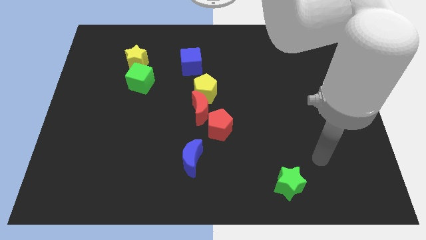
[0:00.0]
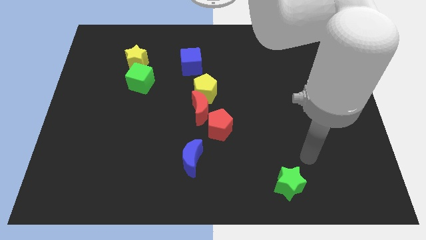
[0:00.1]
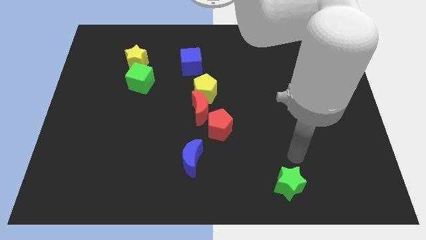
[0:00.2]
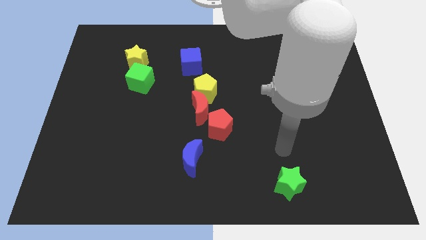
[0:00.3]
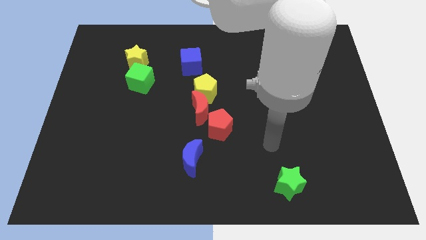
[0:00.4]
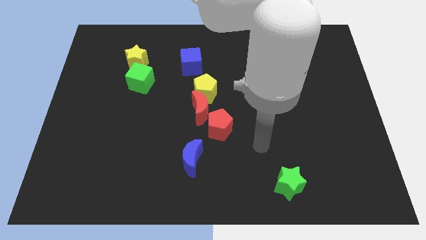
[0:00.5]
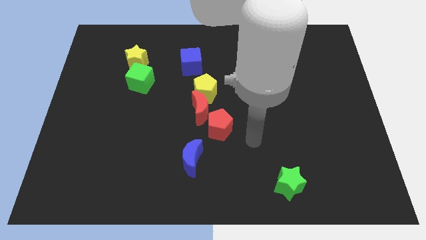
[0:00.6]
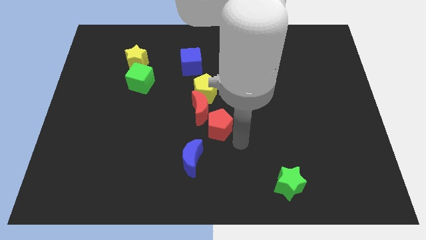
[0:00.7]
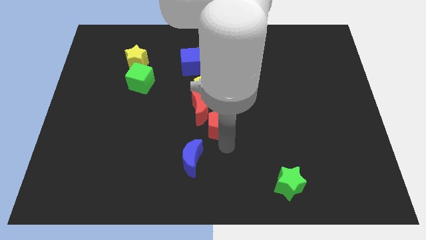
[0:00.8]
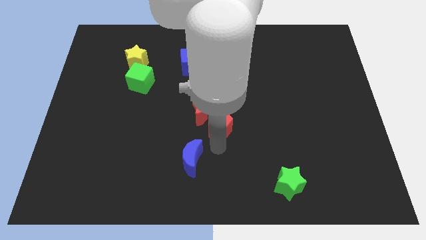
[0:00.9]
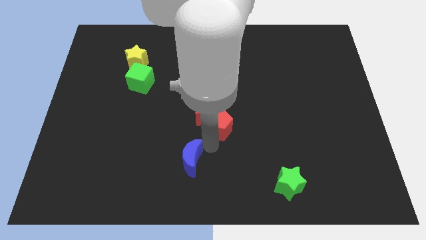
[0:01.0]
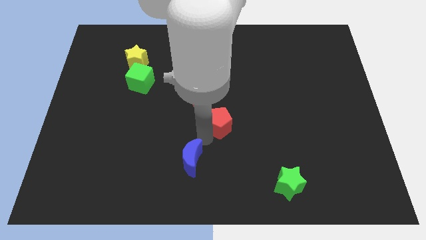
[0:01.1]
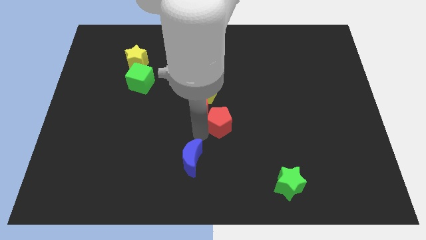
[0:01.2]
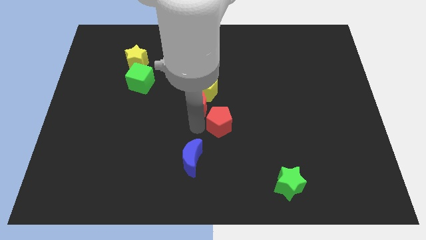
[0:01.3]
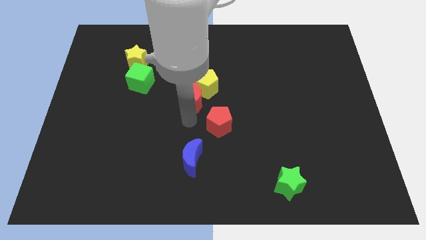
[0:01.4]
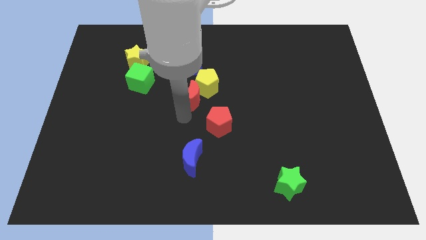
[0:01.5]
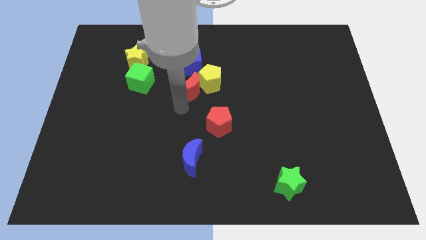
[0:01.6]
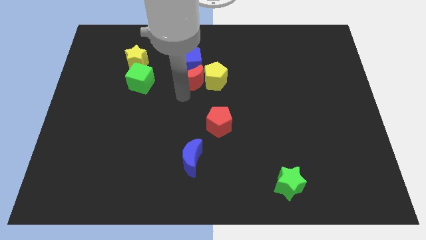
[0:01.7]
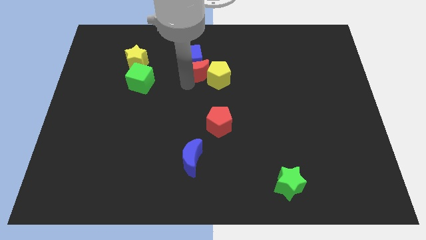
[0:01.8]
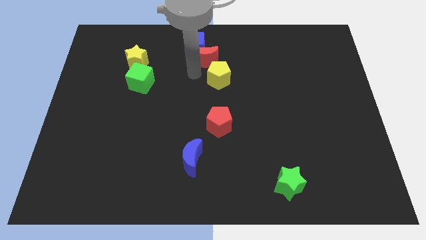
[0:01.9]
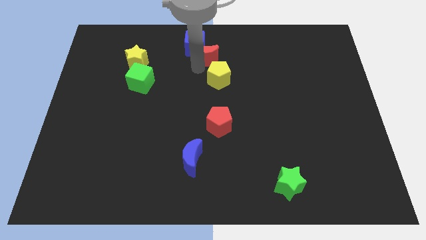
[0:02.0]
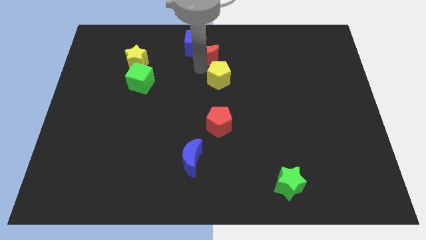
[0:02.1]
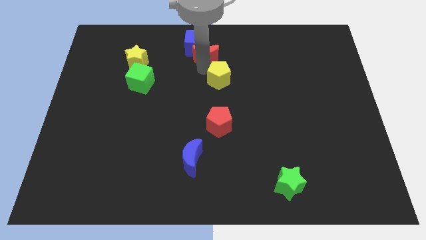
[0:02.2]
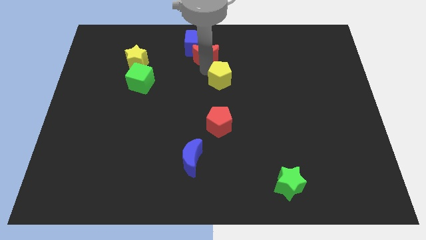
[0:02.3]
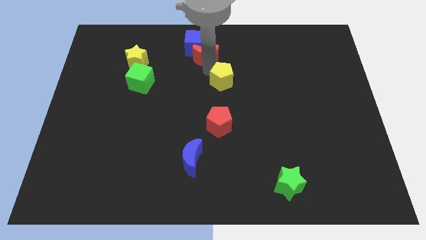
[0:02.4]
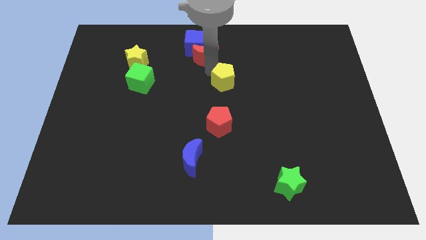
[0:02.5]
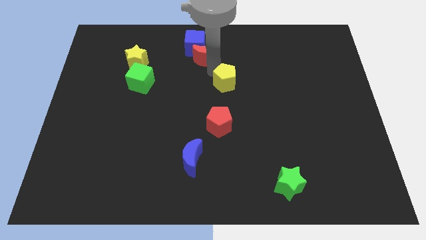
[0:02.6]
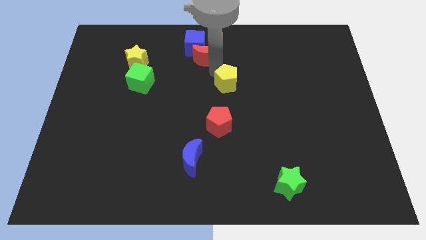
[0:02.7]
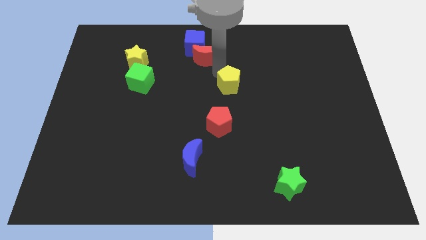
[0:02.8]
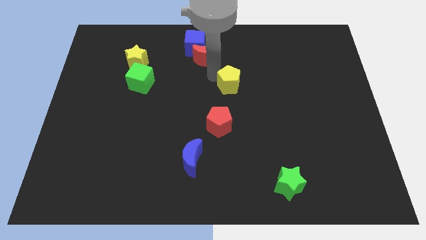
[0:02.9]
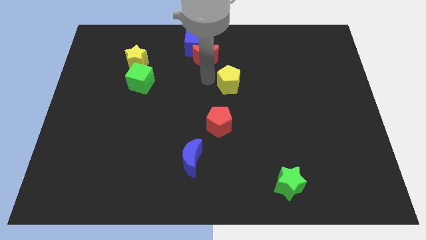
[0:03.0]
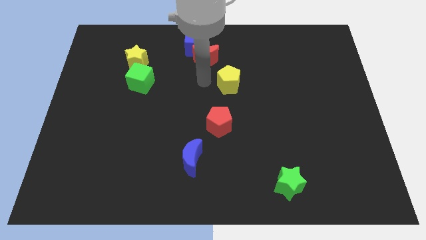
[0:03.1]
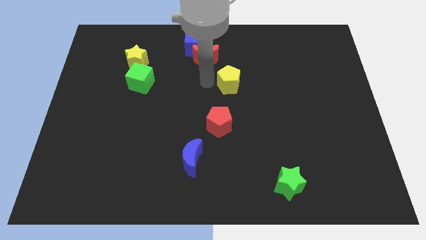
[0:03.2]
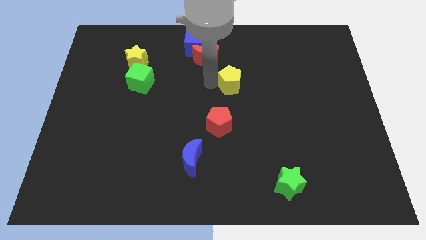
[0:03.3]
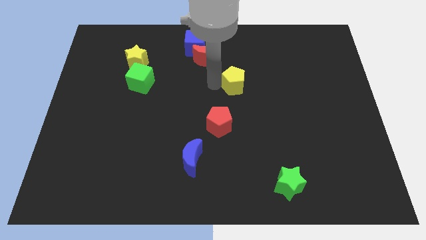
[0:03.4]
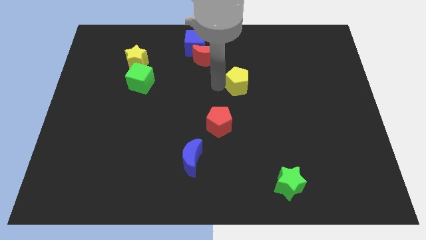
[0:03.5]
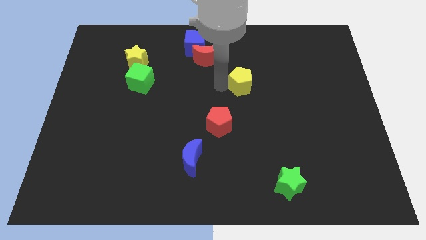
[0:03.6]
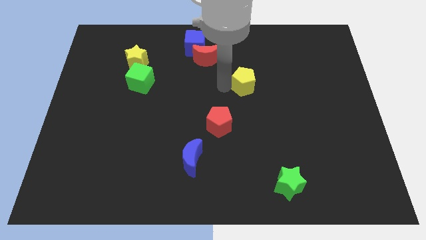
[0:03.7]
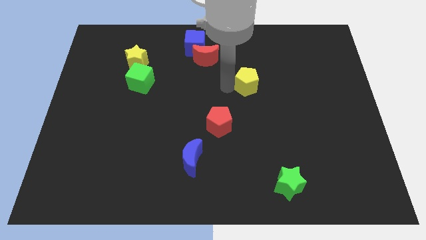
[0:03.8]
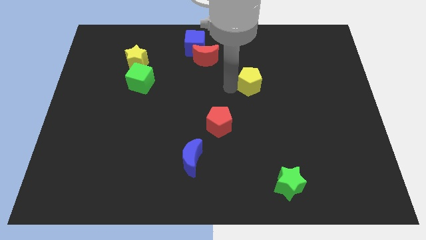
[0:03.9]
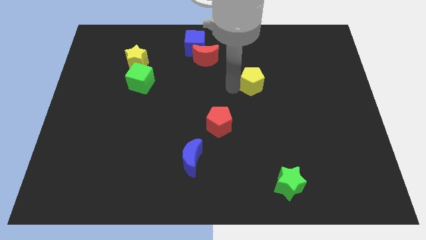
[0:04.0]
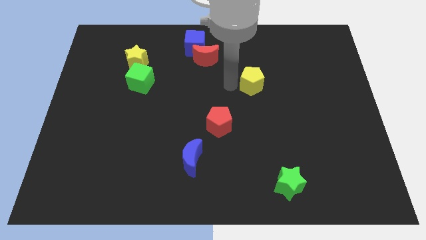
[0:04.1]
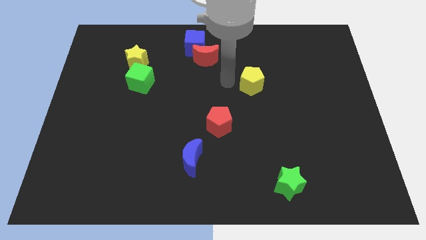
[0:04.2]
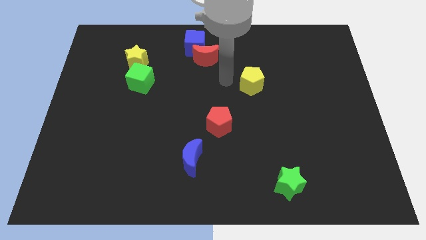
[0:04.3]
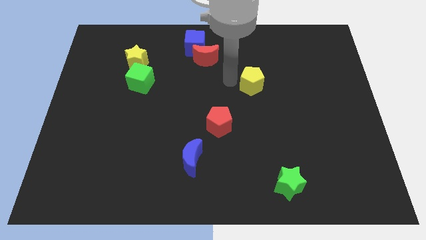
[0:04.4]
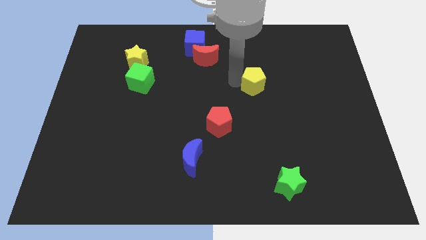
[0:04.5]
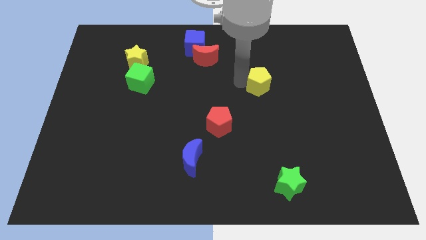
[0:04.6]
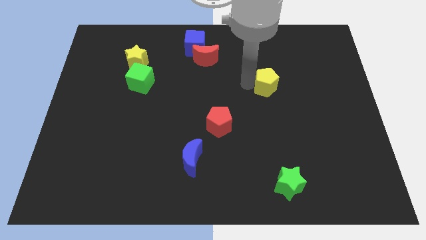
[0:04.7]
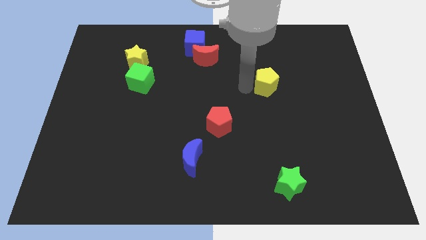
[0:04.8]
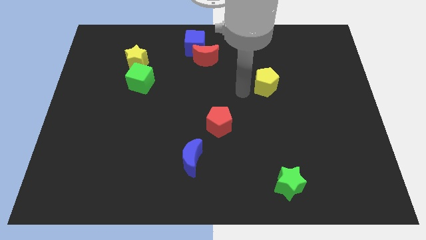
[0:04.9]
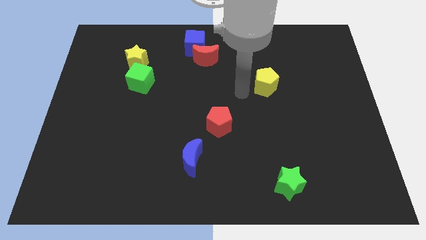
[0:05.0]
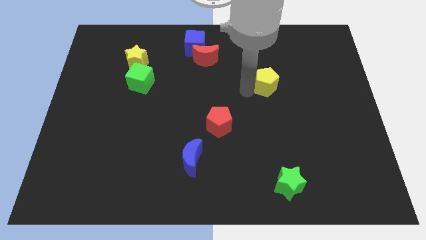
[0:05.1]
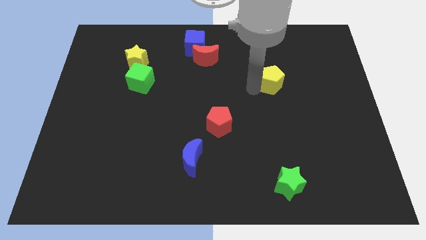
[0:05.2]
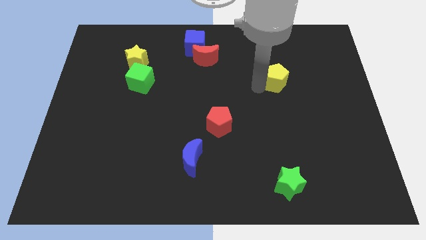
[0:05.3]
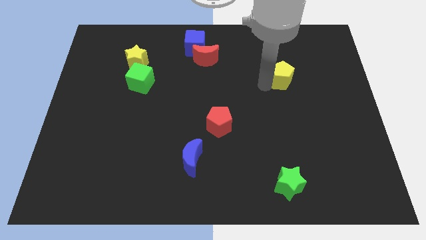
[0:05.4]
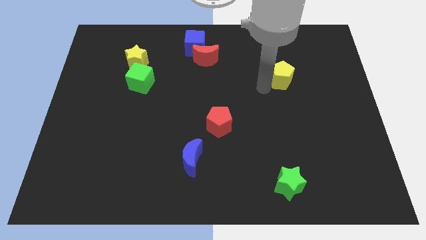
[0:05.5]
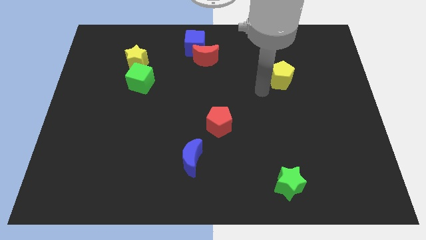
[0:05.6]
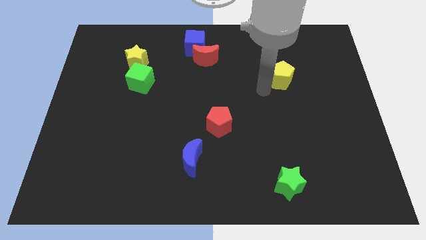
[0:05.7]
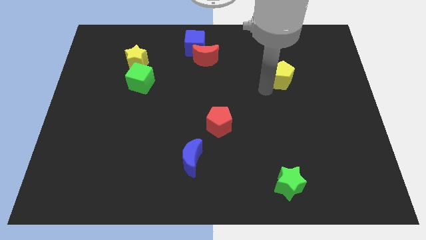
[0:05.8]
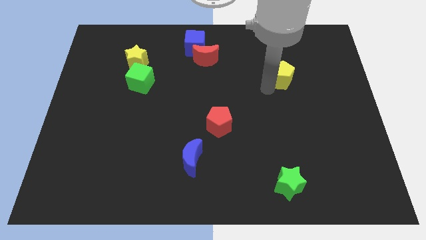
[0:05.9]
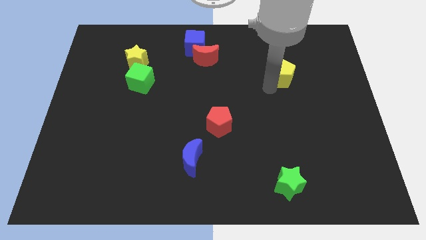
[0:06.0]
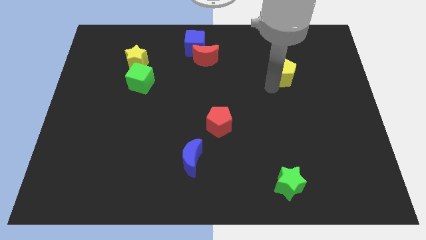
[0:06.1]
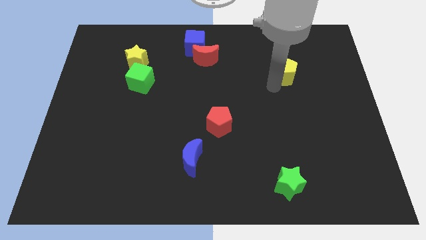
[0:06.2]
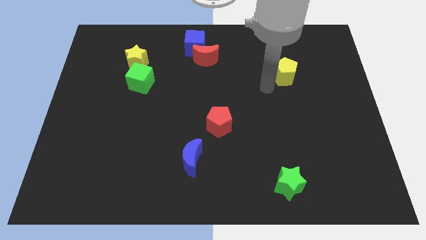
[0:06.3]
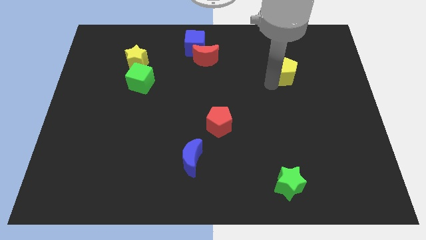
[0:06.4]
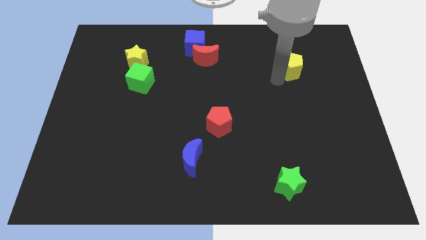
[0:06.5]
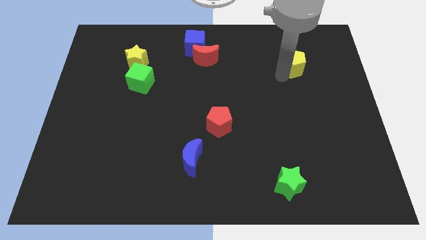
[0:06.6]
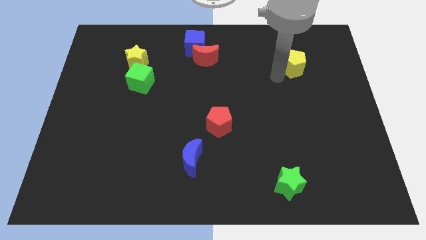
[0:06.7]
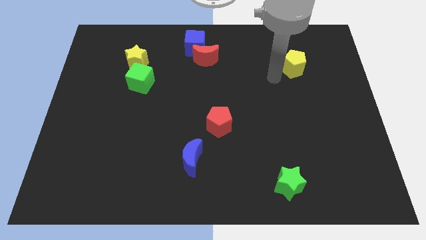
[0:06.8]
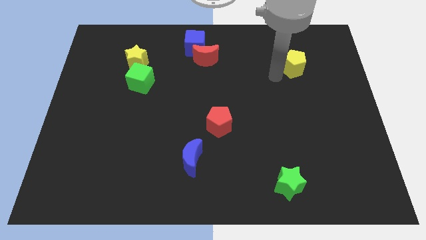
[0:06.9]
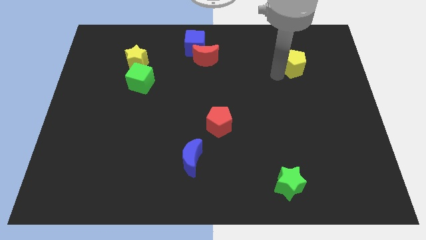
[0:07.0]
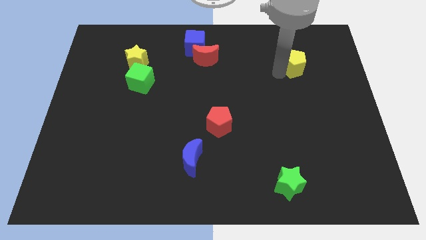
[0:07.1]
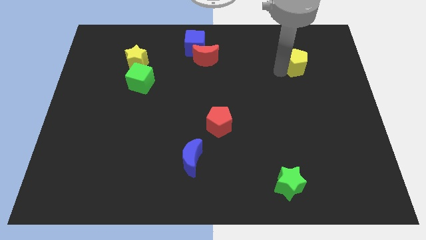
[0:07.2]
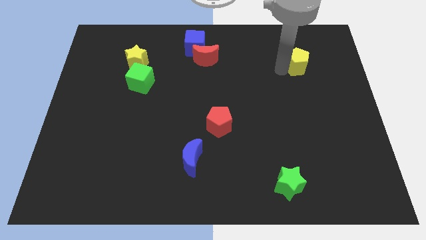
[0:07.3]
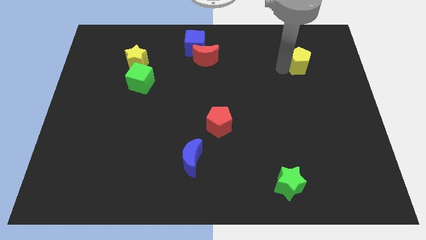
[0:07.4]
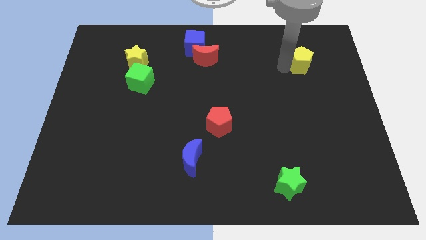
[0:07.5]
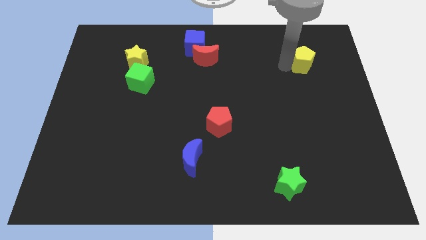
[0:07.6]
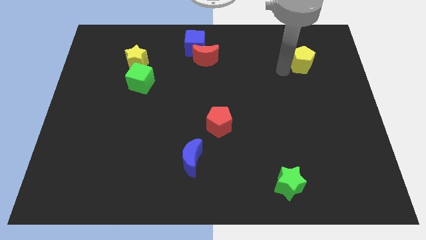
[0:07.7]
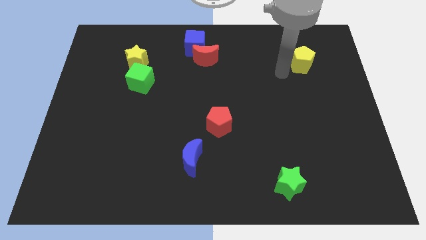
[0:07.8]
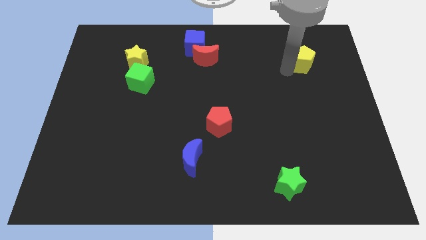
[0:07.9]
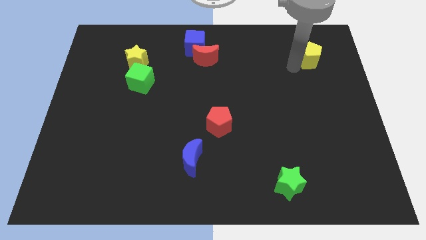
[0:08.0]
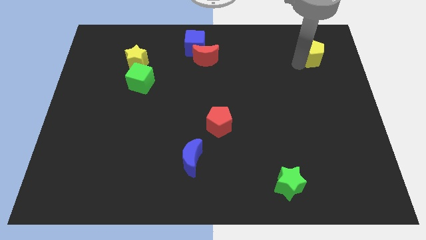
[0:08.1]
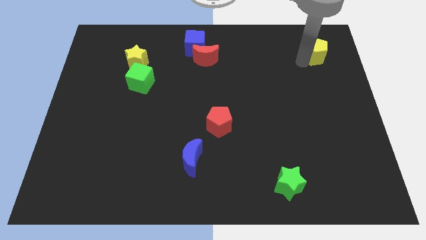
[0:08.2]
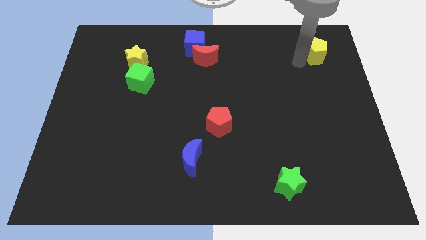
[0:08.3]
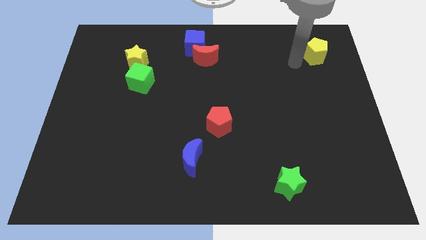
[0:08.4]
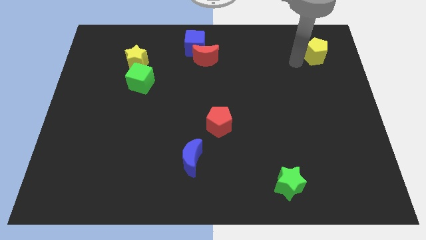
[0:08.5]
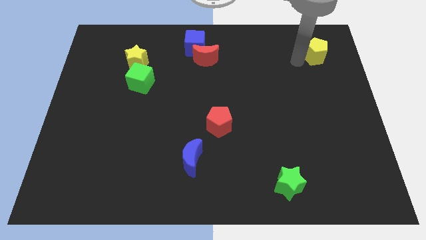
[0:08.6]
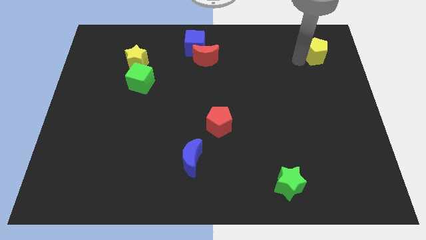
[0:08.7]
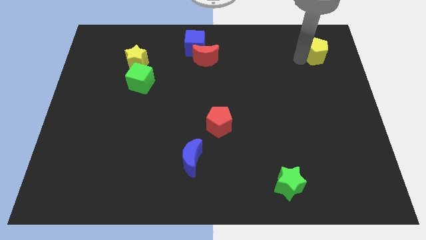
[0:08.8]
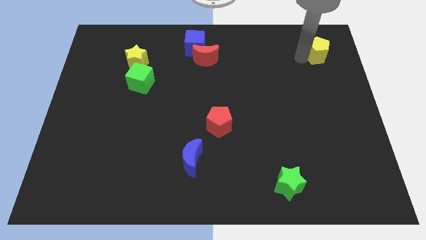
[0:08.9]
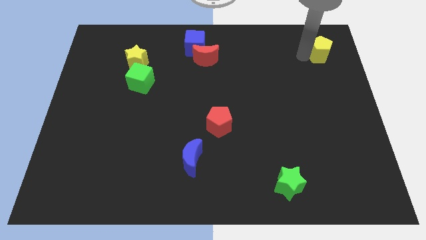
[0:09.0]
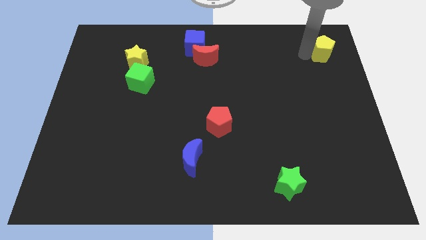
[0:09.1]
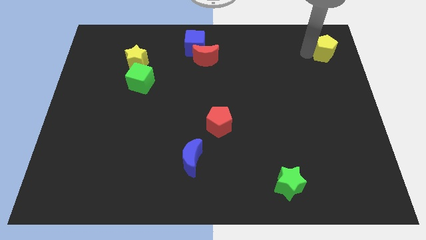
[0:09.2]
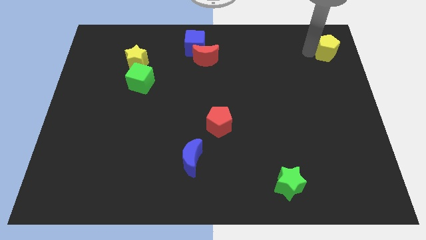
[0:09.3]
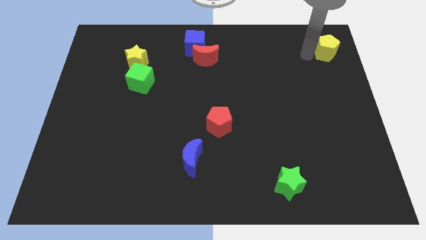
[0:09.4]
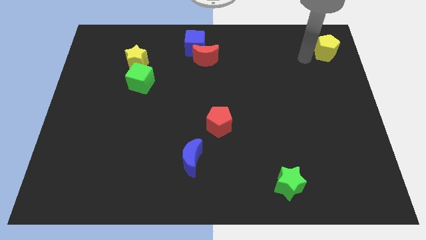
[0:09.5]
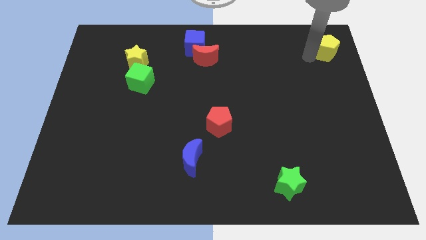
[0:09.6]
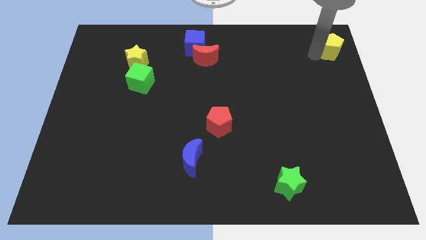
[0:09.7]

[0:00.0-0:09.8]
slide the yellow pentagon to the top right corner
